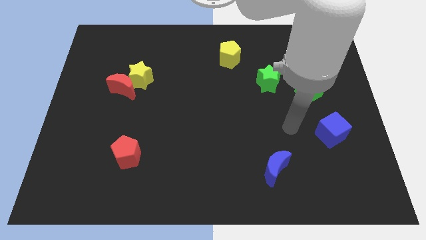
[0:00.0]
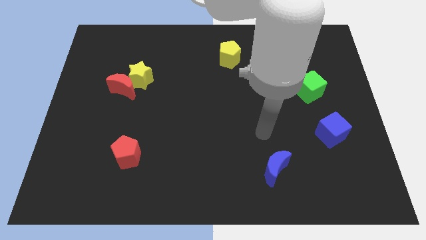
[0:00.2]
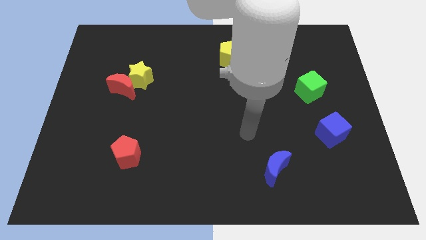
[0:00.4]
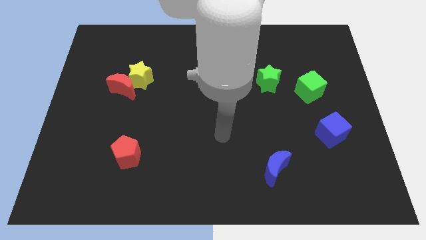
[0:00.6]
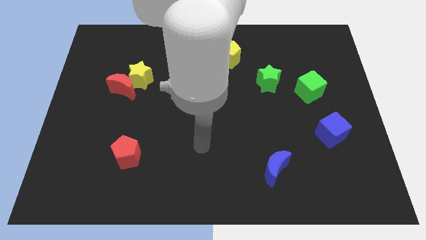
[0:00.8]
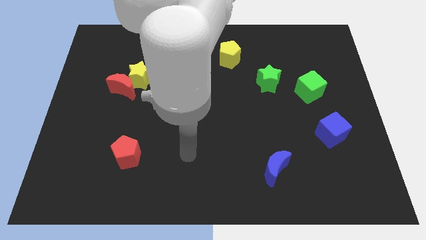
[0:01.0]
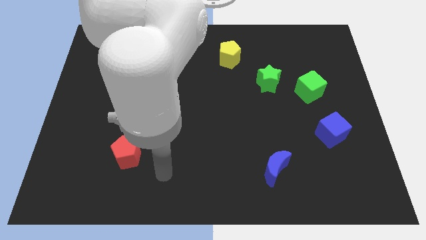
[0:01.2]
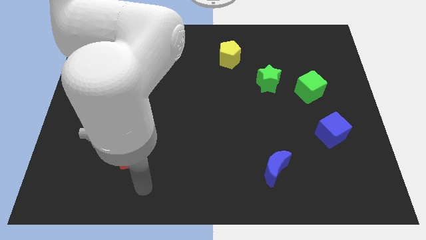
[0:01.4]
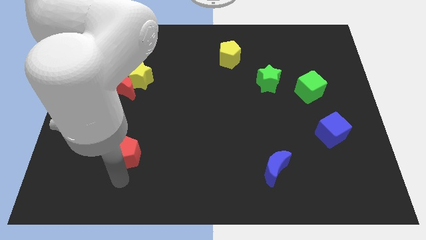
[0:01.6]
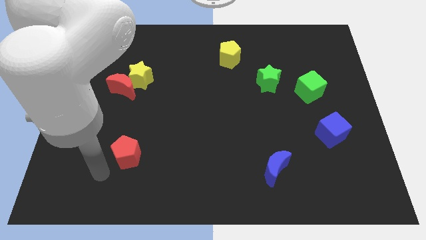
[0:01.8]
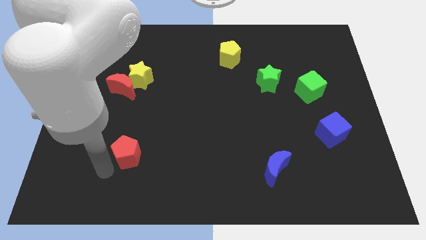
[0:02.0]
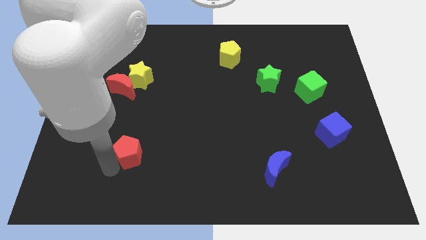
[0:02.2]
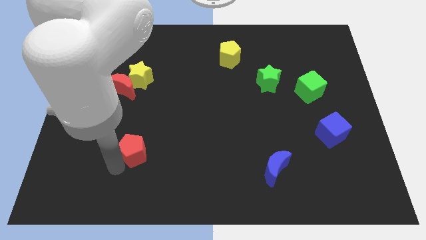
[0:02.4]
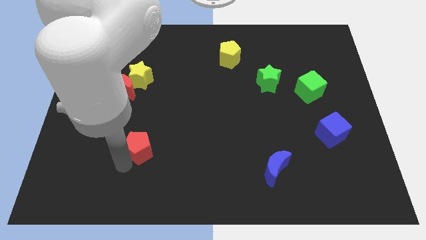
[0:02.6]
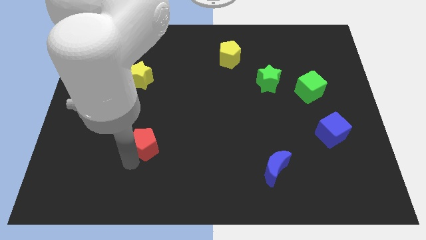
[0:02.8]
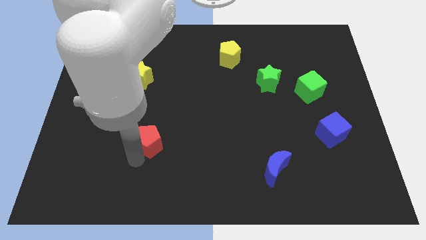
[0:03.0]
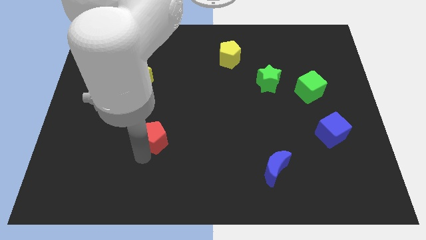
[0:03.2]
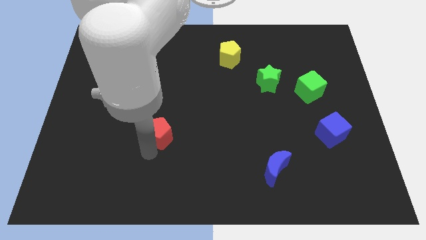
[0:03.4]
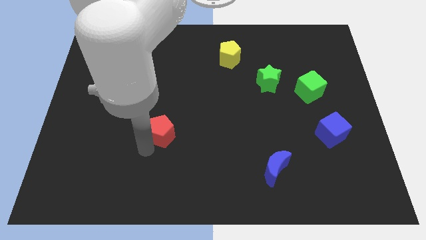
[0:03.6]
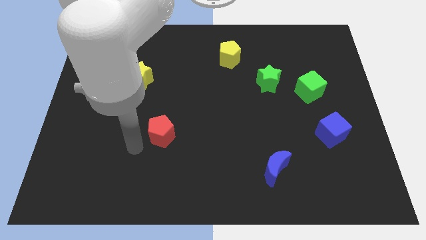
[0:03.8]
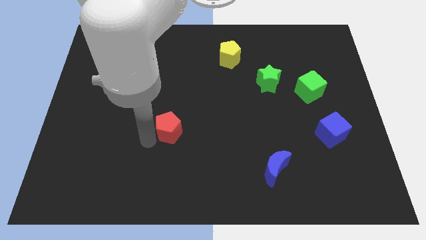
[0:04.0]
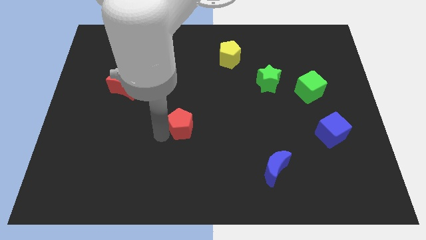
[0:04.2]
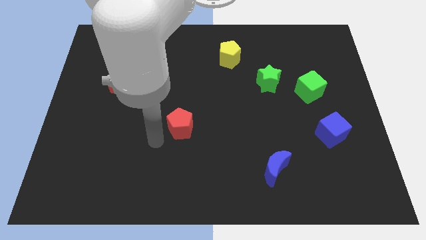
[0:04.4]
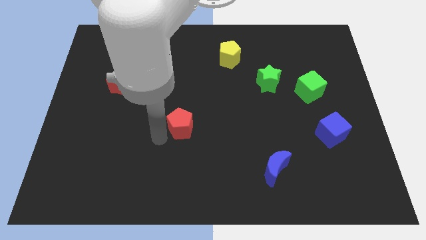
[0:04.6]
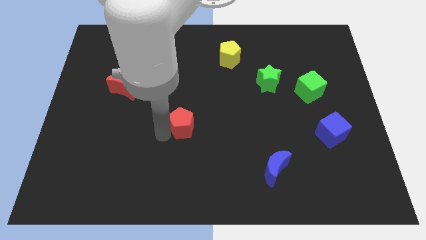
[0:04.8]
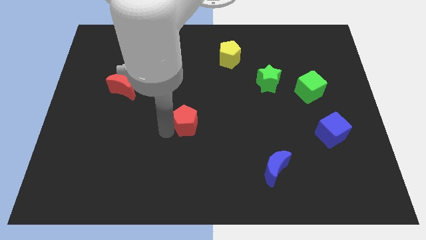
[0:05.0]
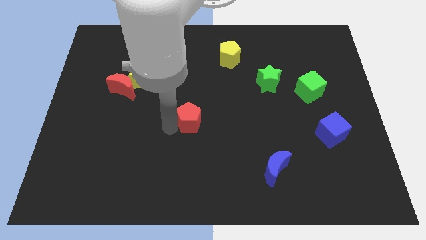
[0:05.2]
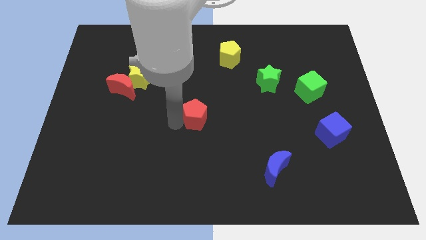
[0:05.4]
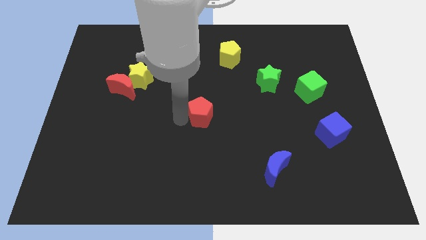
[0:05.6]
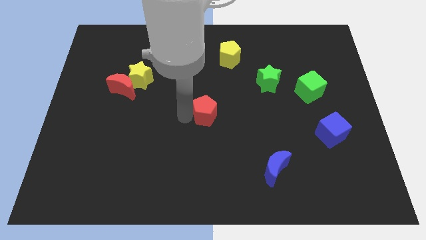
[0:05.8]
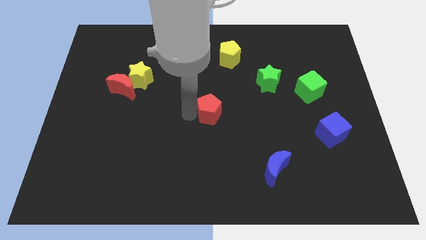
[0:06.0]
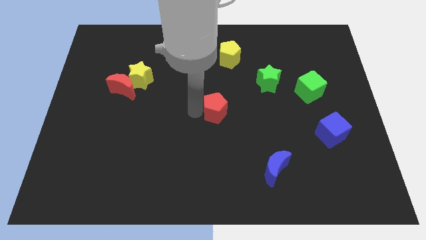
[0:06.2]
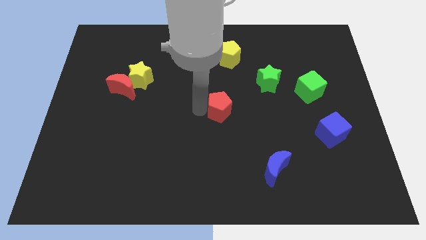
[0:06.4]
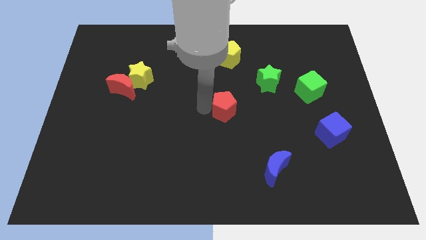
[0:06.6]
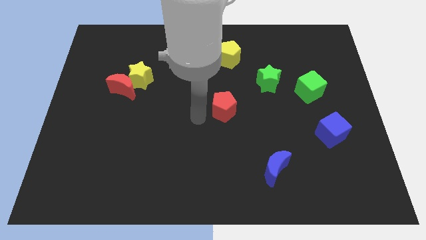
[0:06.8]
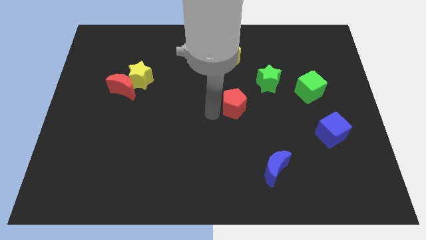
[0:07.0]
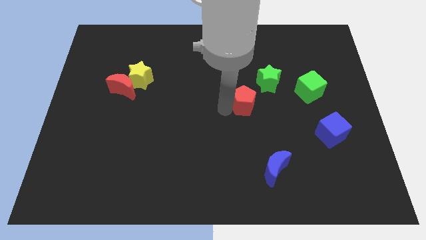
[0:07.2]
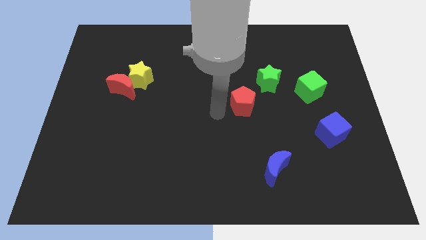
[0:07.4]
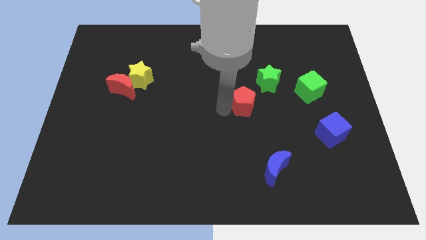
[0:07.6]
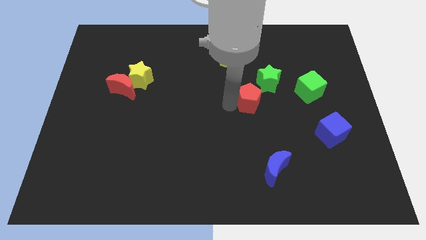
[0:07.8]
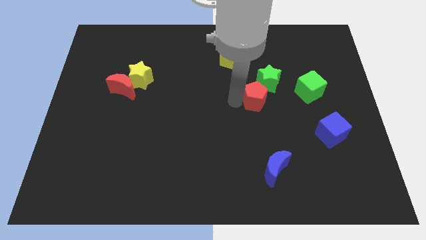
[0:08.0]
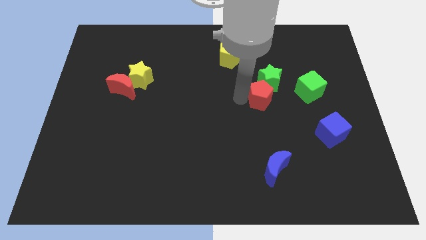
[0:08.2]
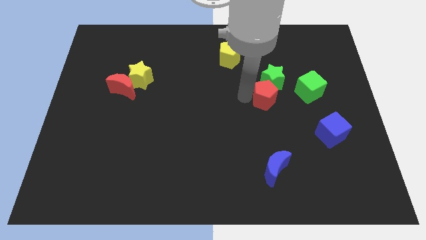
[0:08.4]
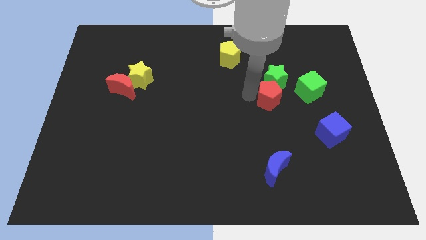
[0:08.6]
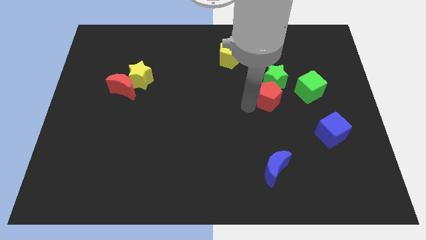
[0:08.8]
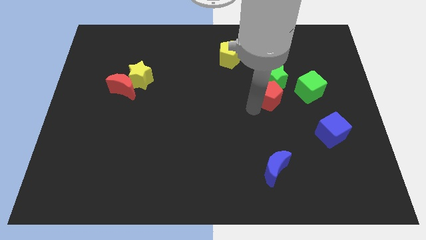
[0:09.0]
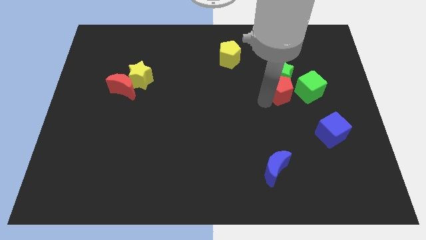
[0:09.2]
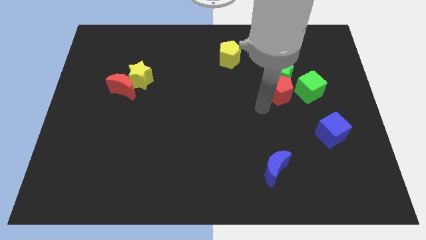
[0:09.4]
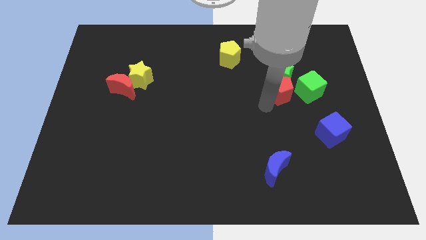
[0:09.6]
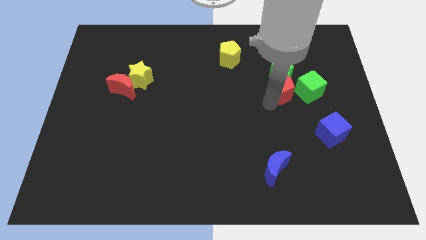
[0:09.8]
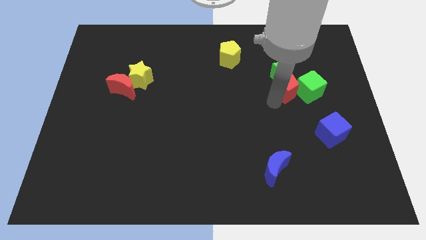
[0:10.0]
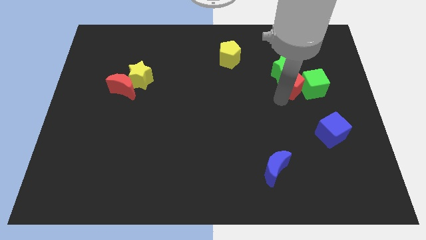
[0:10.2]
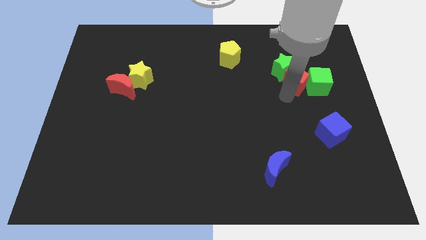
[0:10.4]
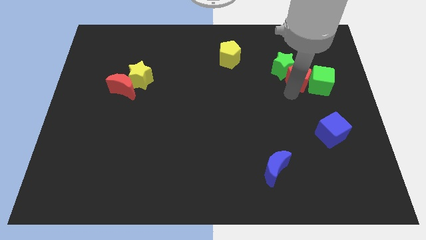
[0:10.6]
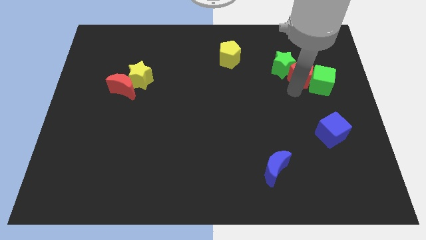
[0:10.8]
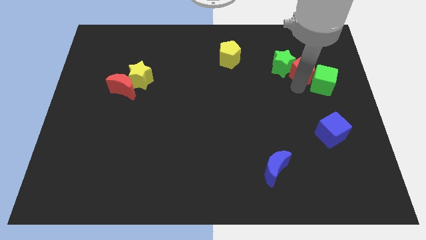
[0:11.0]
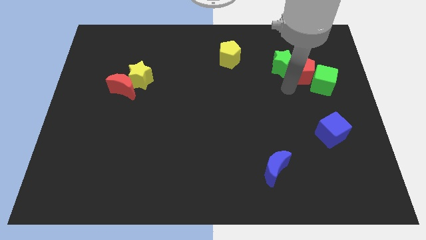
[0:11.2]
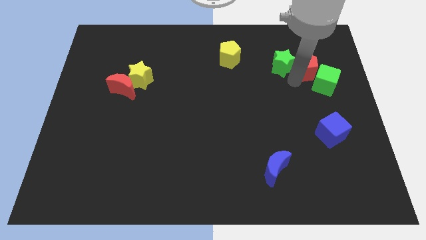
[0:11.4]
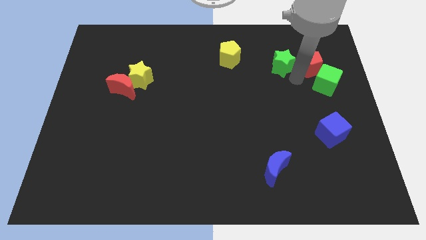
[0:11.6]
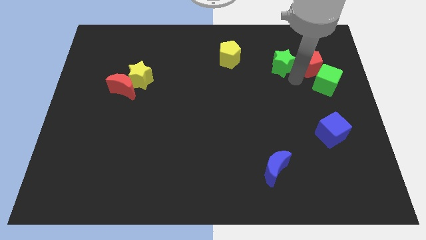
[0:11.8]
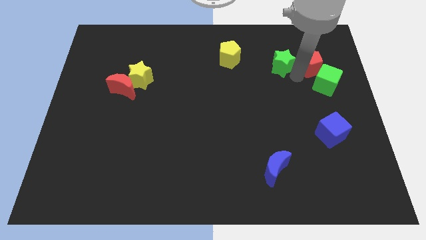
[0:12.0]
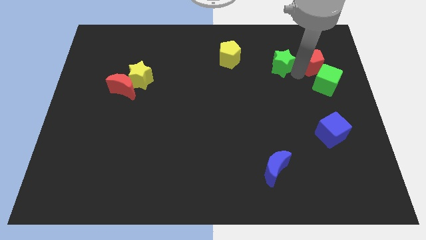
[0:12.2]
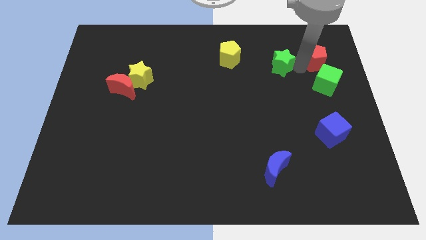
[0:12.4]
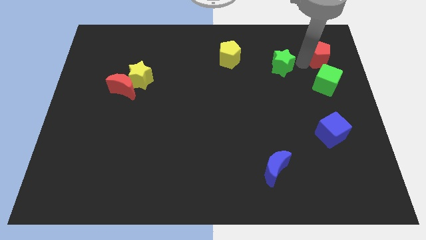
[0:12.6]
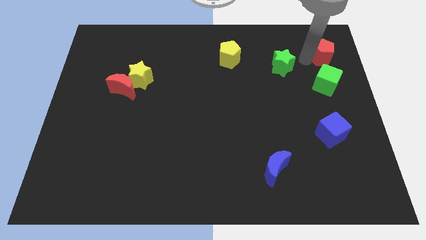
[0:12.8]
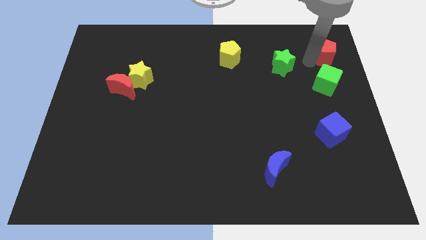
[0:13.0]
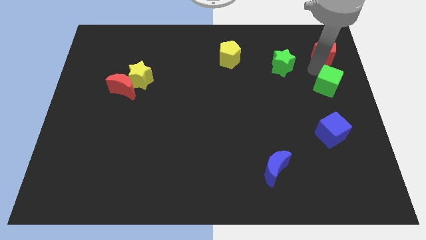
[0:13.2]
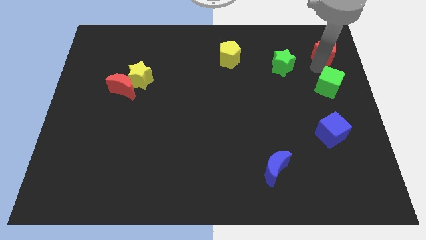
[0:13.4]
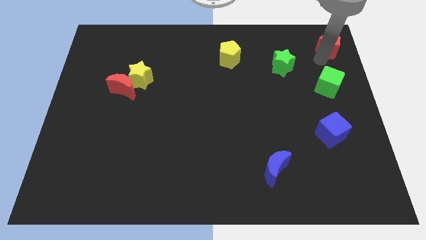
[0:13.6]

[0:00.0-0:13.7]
slide the red pentagon to the top right corner
